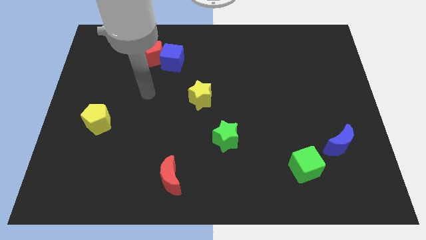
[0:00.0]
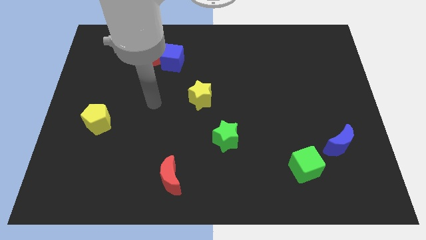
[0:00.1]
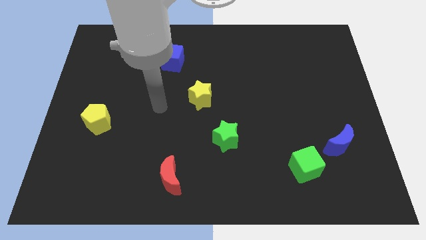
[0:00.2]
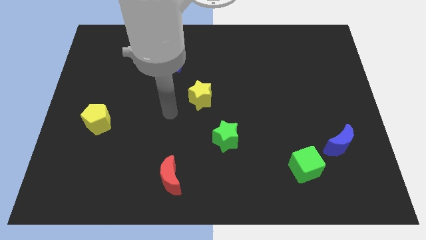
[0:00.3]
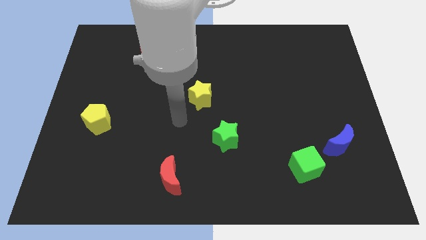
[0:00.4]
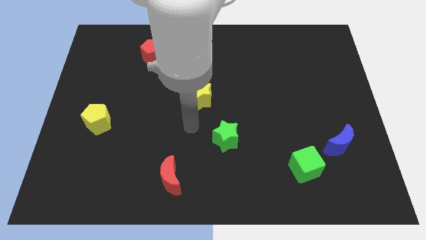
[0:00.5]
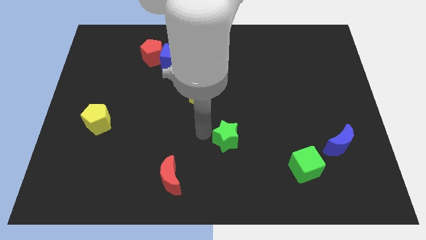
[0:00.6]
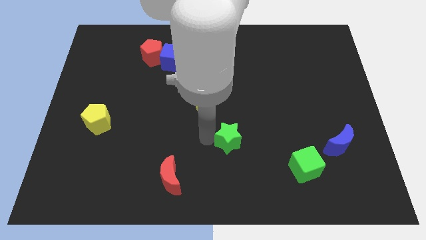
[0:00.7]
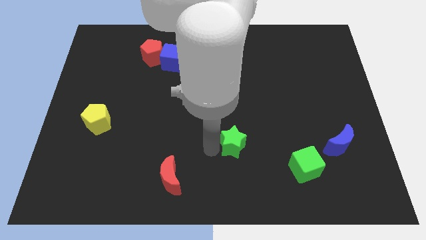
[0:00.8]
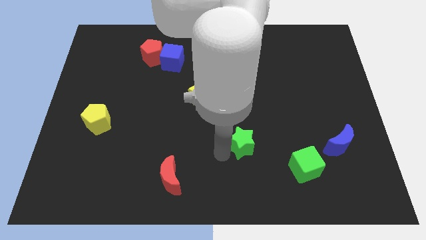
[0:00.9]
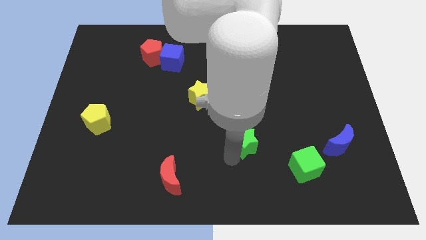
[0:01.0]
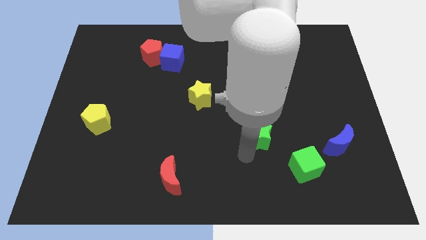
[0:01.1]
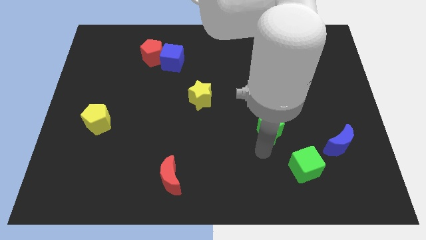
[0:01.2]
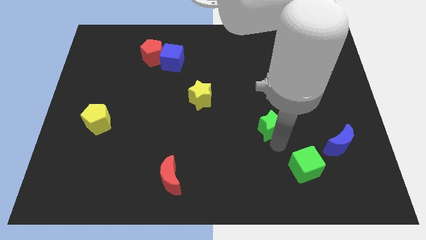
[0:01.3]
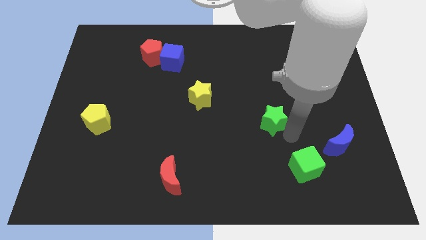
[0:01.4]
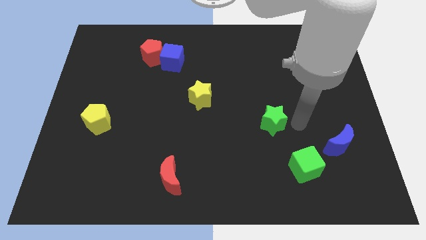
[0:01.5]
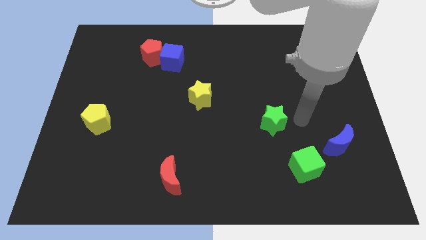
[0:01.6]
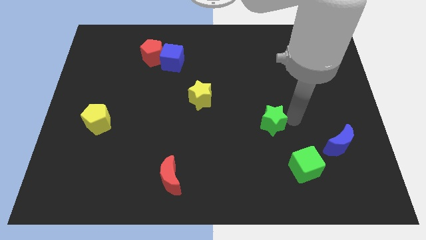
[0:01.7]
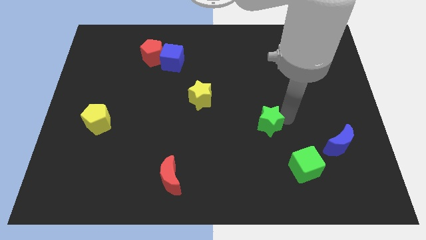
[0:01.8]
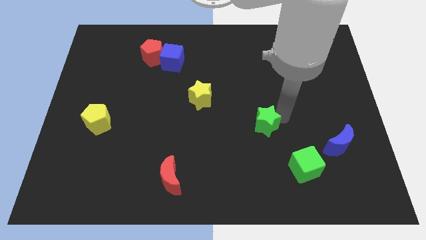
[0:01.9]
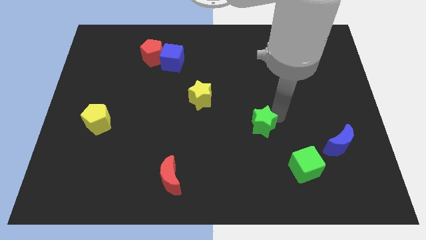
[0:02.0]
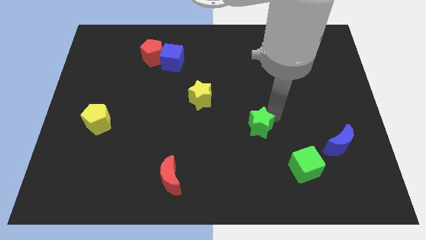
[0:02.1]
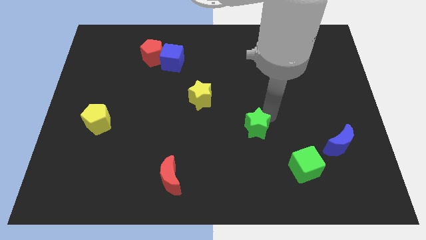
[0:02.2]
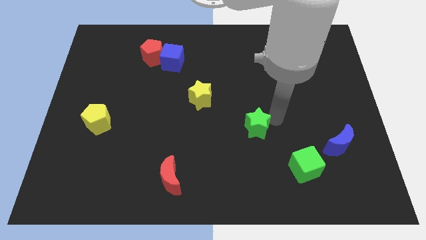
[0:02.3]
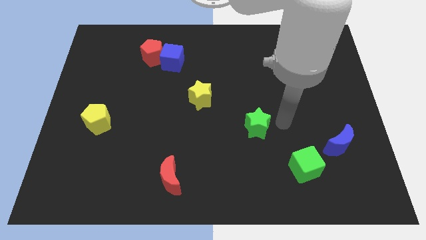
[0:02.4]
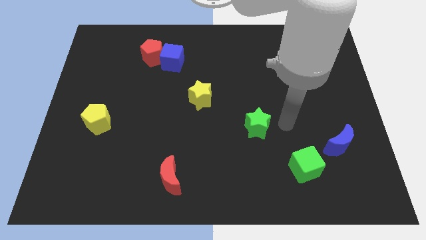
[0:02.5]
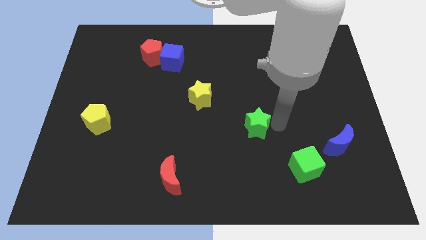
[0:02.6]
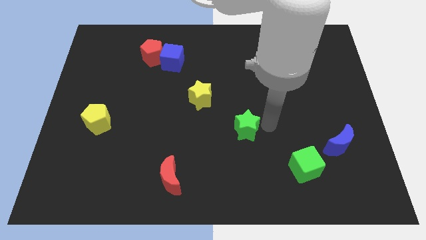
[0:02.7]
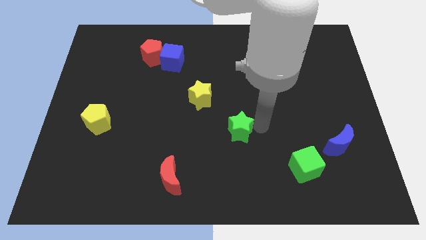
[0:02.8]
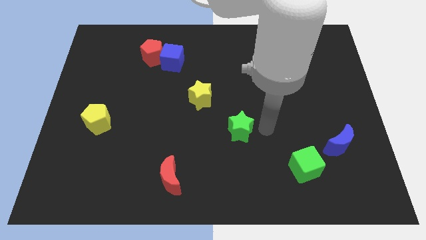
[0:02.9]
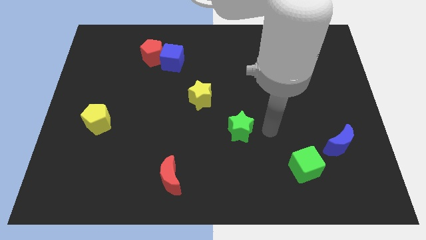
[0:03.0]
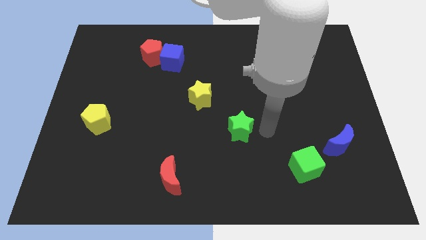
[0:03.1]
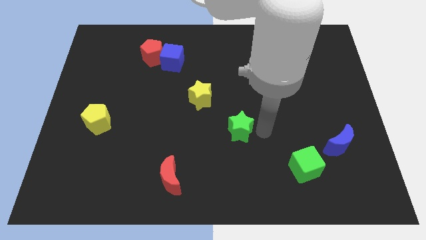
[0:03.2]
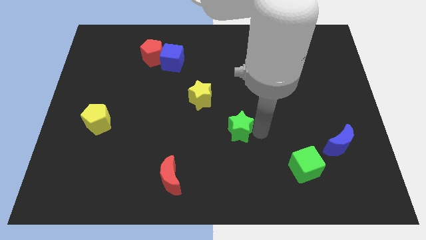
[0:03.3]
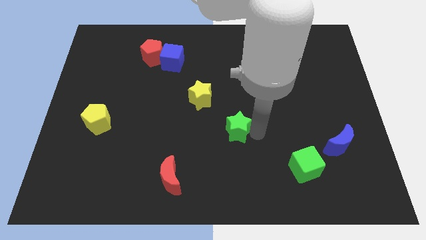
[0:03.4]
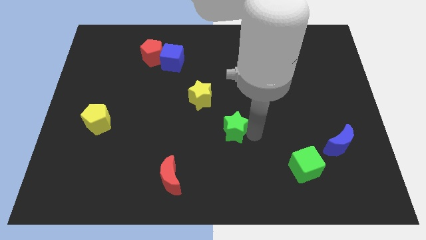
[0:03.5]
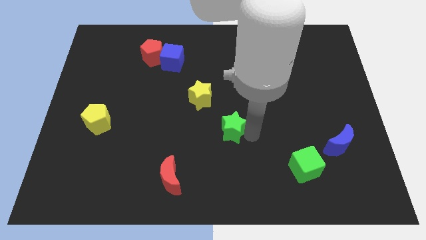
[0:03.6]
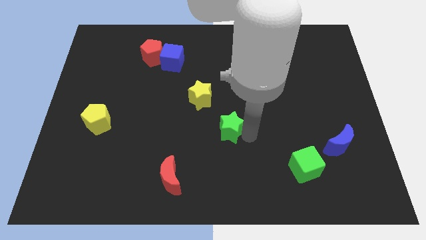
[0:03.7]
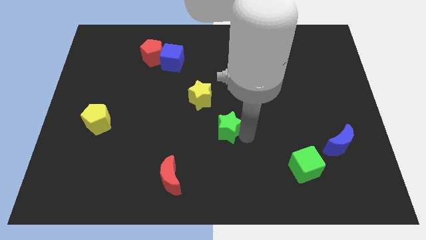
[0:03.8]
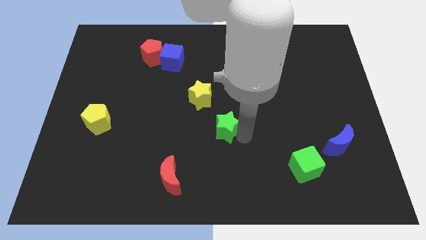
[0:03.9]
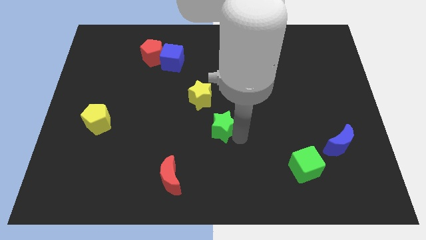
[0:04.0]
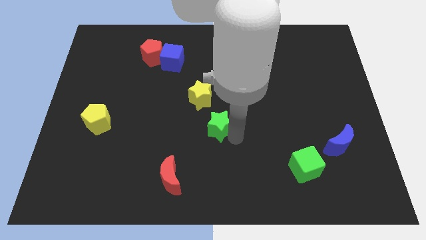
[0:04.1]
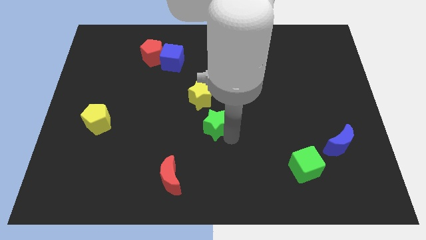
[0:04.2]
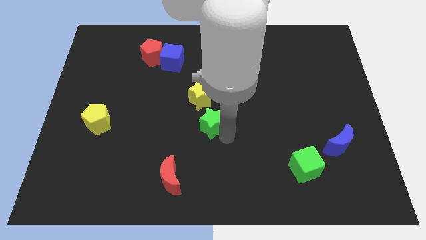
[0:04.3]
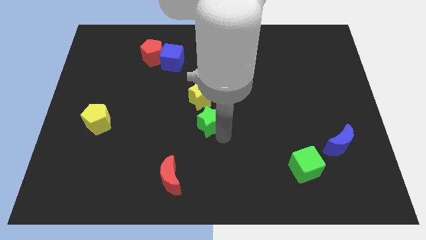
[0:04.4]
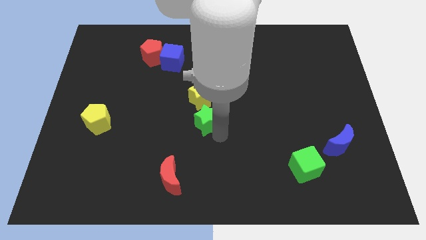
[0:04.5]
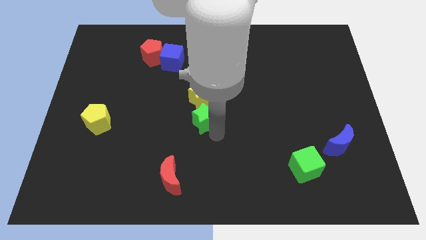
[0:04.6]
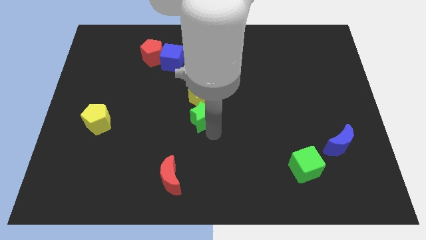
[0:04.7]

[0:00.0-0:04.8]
move the green star upwards and then left slightly

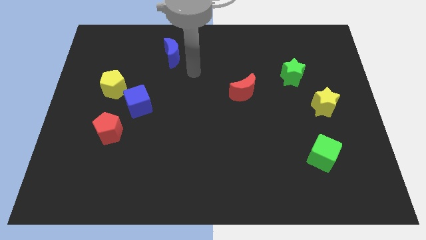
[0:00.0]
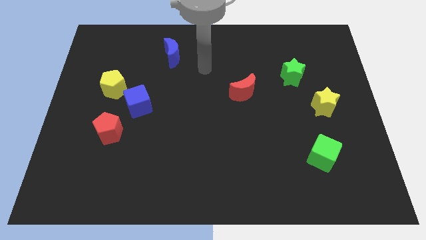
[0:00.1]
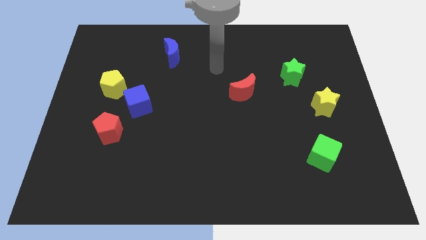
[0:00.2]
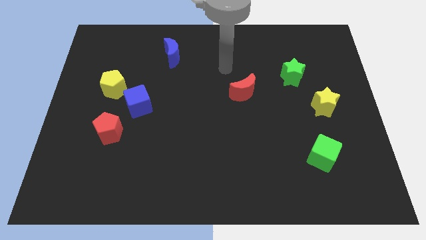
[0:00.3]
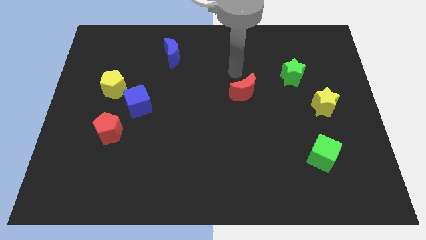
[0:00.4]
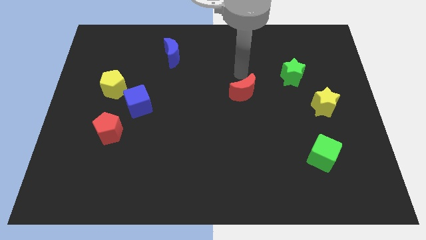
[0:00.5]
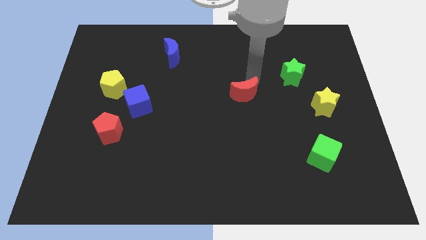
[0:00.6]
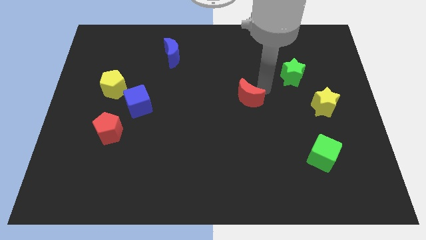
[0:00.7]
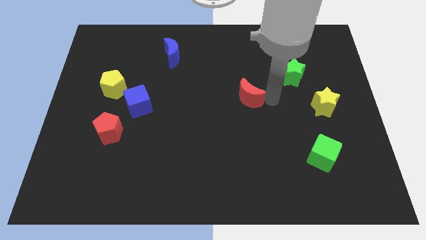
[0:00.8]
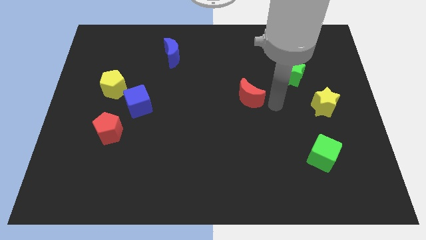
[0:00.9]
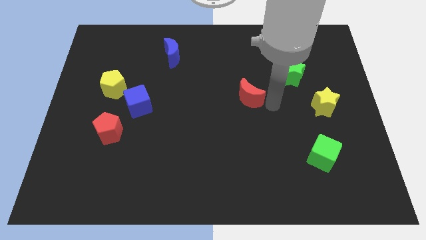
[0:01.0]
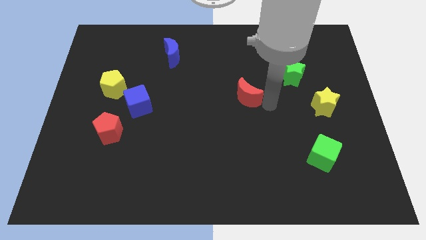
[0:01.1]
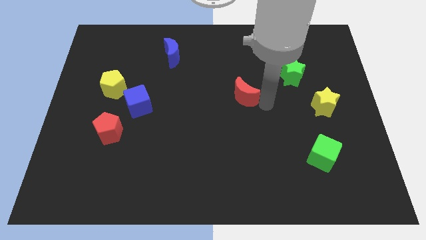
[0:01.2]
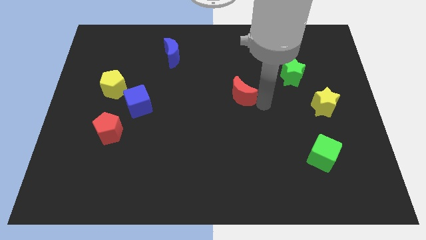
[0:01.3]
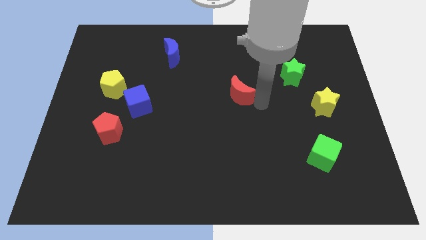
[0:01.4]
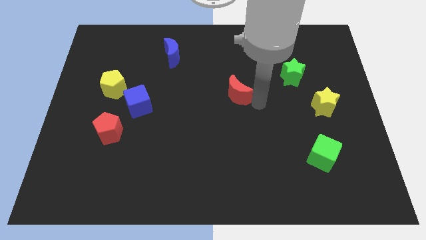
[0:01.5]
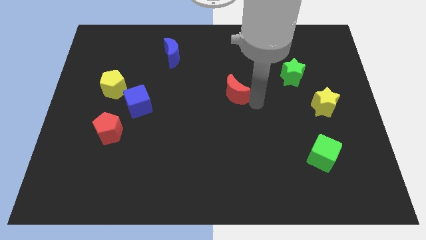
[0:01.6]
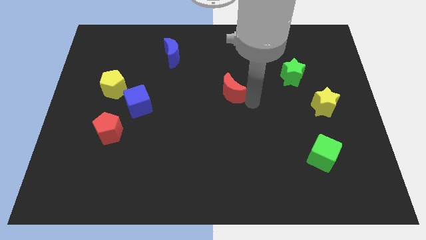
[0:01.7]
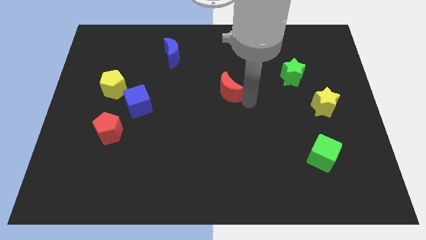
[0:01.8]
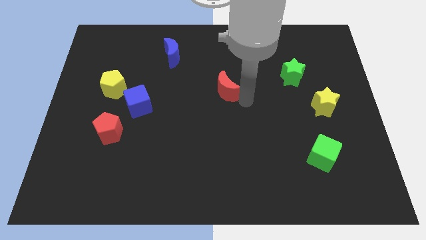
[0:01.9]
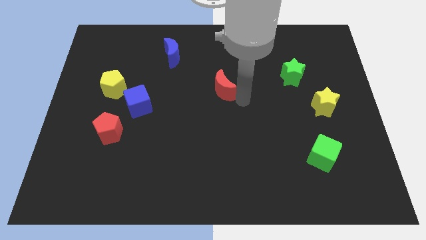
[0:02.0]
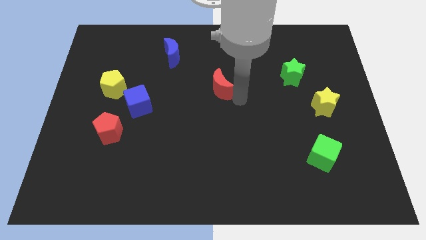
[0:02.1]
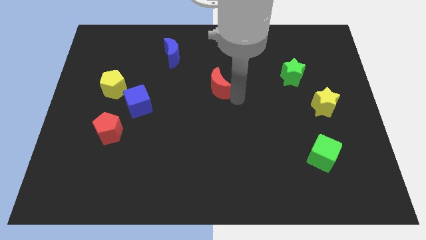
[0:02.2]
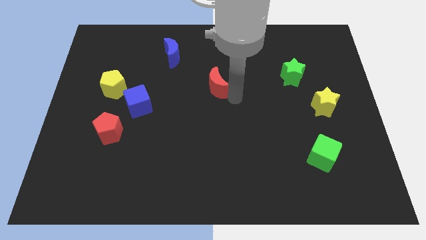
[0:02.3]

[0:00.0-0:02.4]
move the red moon to the left a little bit

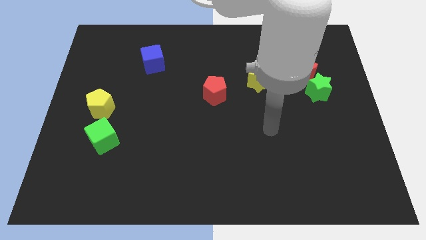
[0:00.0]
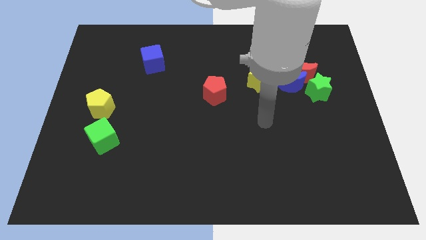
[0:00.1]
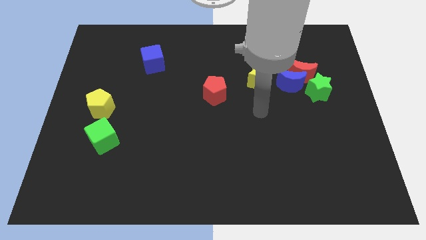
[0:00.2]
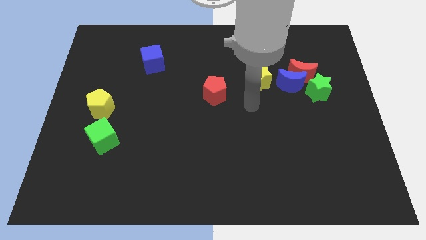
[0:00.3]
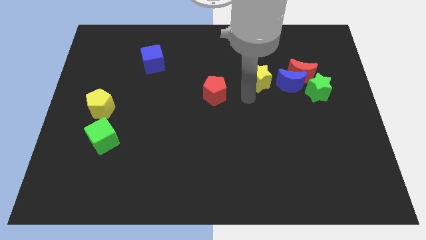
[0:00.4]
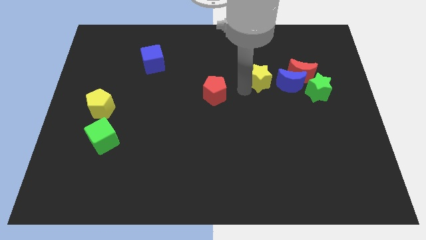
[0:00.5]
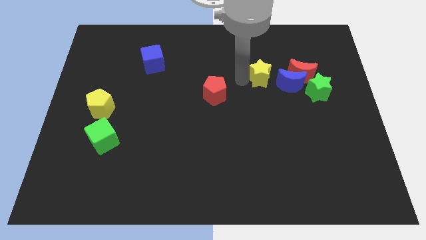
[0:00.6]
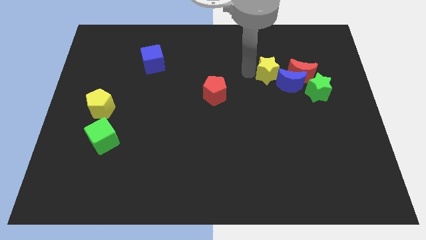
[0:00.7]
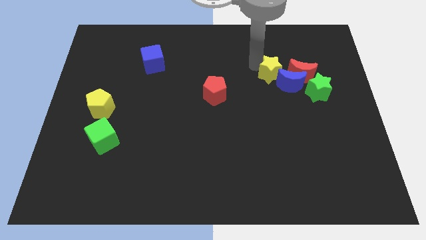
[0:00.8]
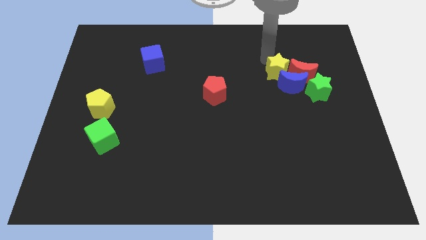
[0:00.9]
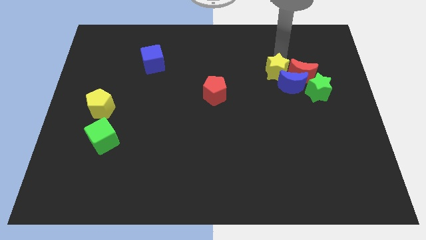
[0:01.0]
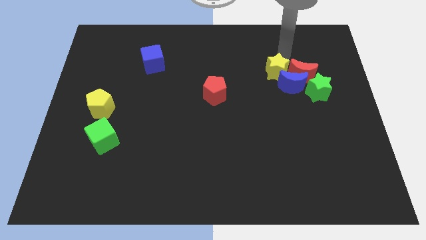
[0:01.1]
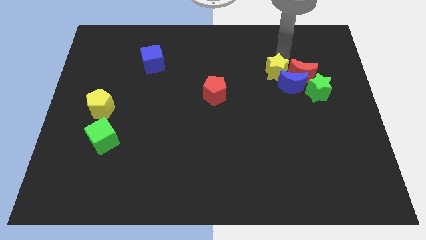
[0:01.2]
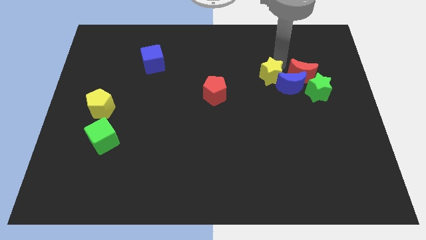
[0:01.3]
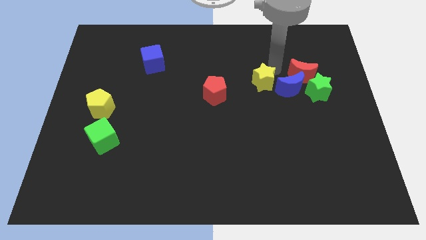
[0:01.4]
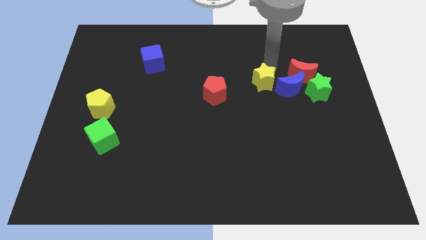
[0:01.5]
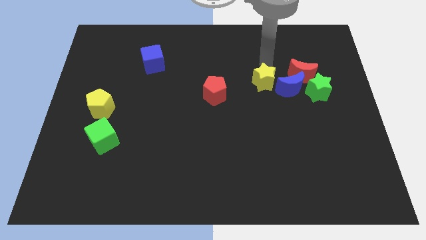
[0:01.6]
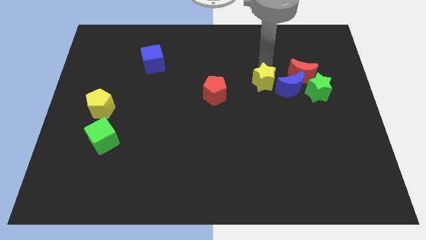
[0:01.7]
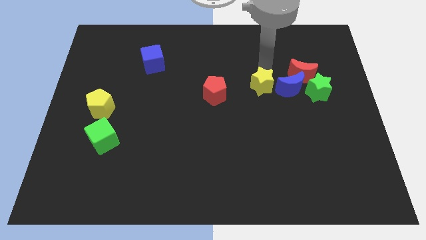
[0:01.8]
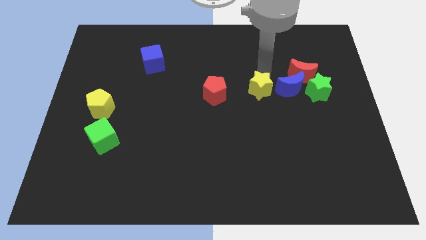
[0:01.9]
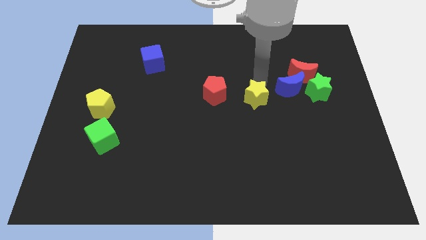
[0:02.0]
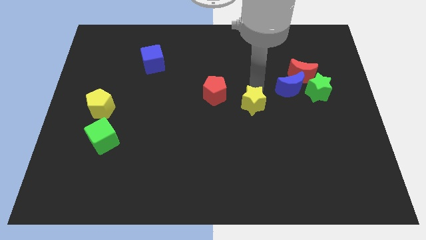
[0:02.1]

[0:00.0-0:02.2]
move the yellow star slightly downwards
